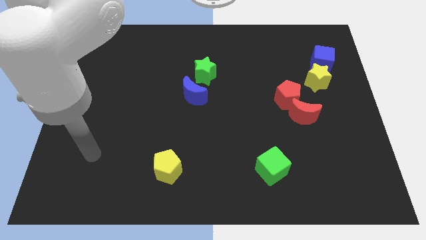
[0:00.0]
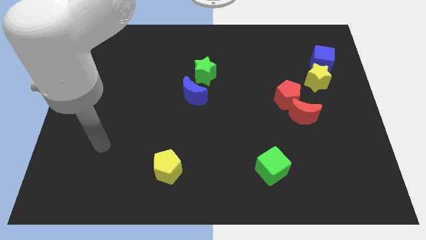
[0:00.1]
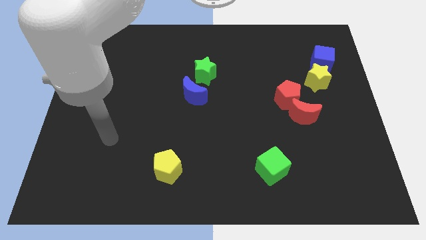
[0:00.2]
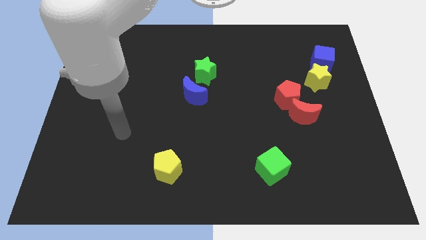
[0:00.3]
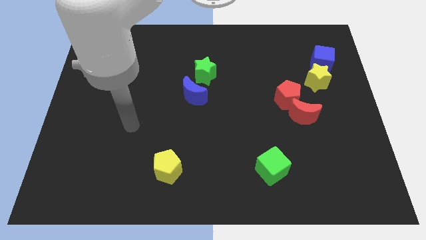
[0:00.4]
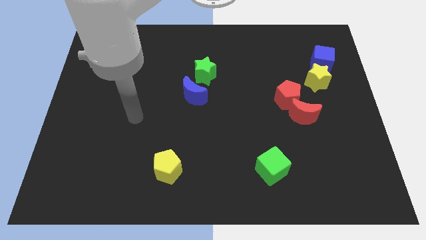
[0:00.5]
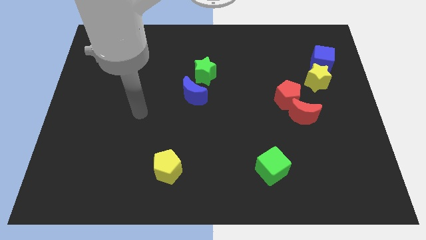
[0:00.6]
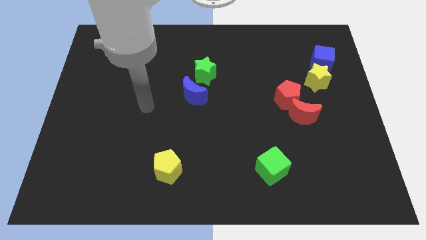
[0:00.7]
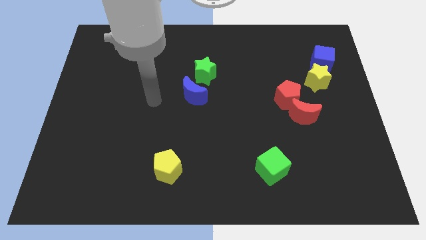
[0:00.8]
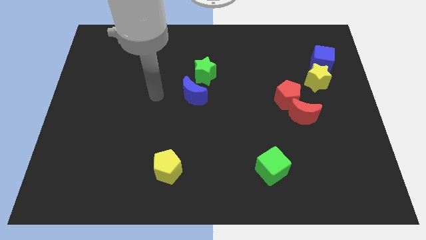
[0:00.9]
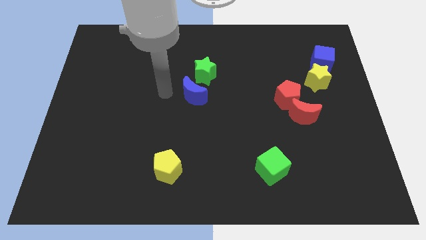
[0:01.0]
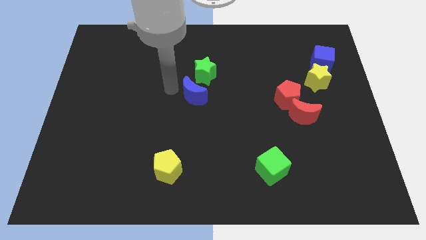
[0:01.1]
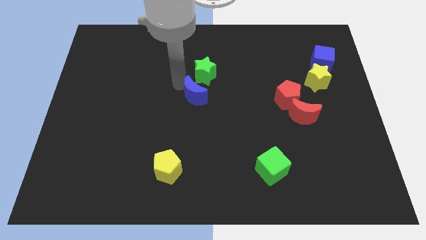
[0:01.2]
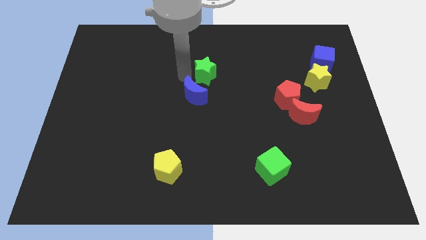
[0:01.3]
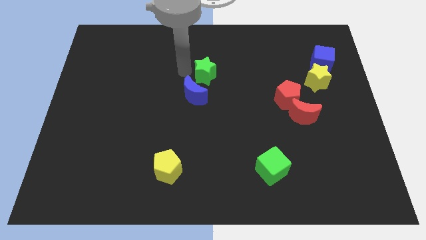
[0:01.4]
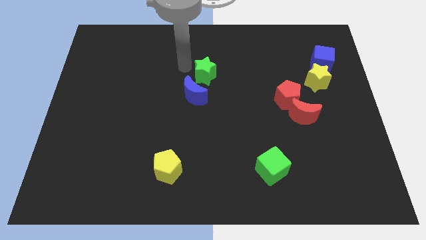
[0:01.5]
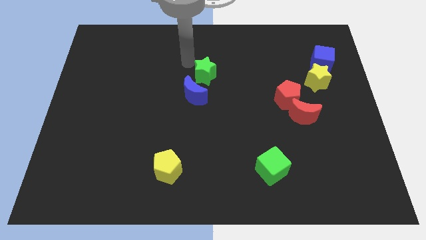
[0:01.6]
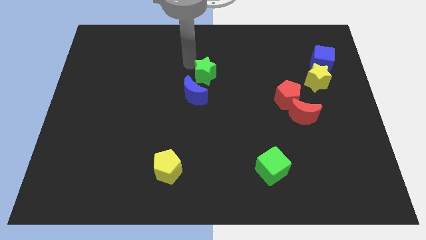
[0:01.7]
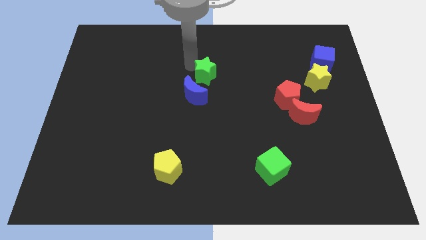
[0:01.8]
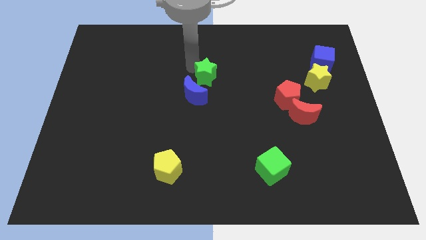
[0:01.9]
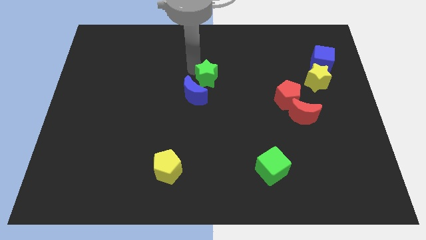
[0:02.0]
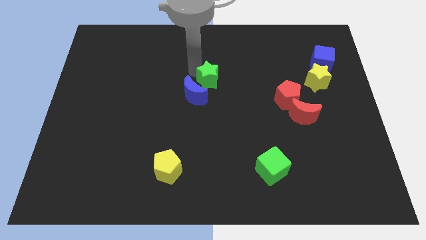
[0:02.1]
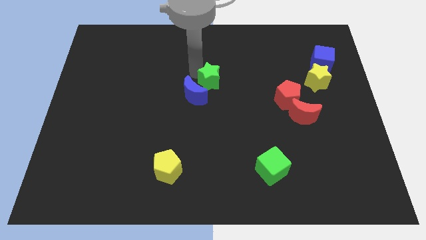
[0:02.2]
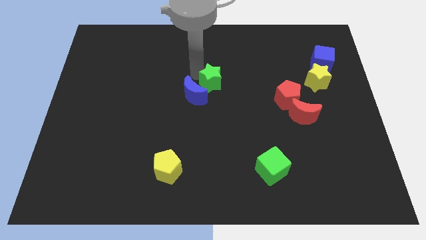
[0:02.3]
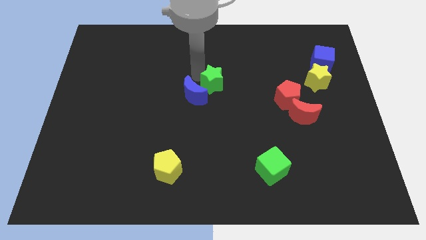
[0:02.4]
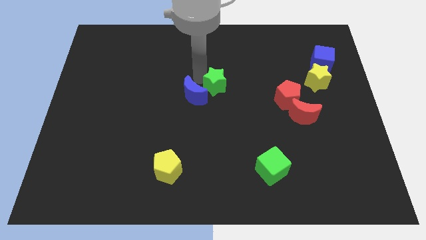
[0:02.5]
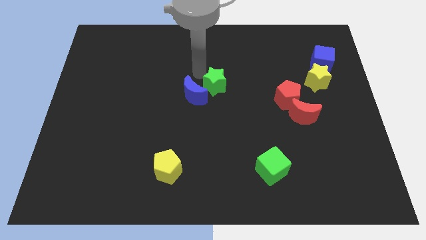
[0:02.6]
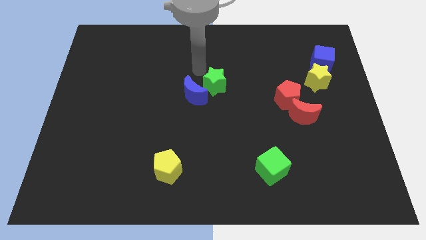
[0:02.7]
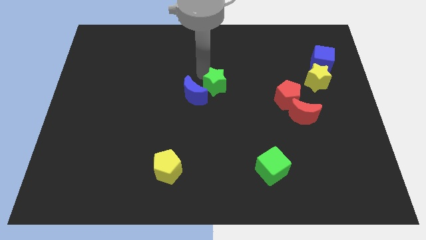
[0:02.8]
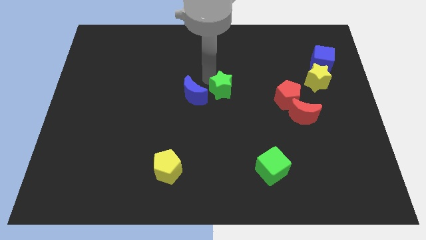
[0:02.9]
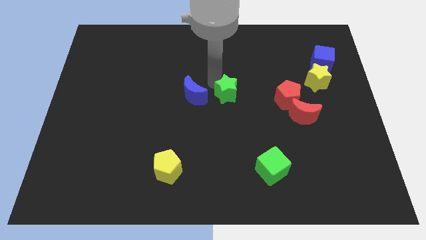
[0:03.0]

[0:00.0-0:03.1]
push the green star slightly downwards and then to the right

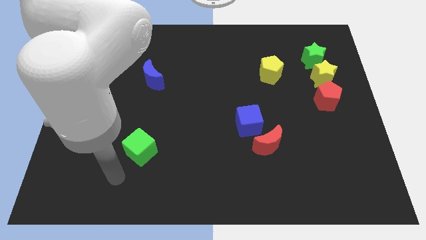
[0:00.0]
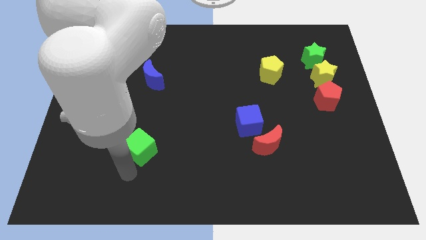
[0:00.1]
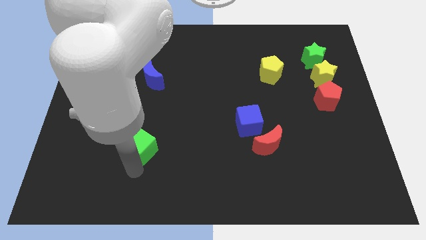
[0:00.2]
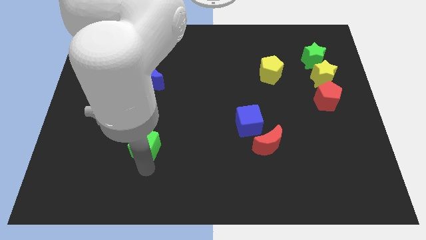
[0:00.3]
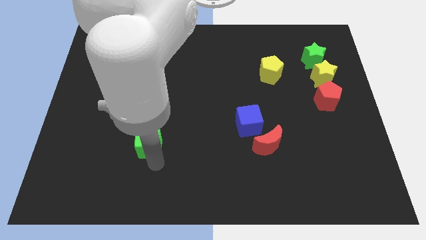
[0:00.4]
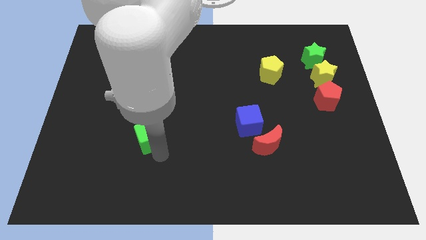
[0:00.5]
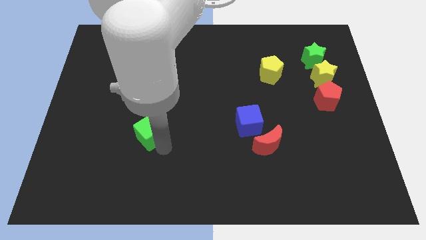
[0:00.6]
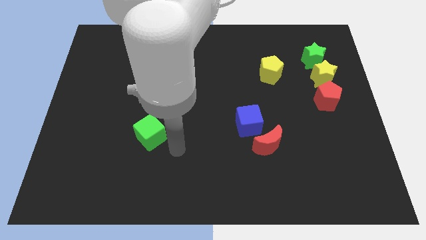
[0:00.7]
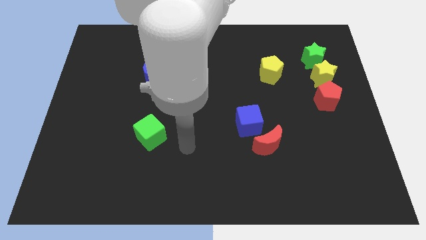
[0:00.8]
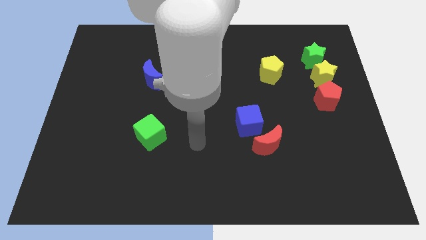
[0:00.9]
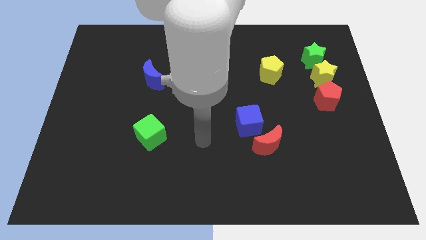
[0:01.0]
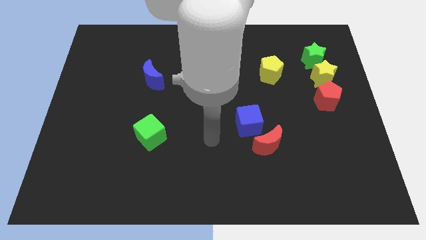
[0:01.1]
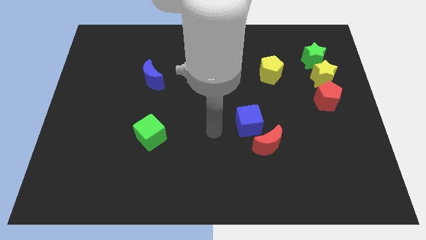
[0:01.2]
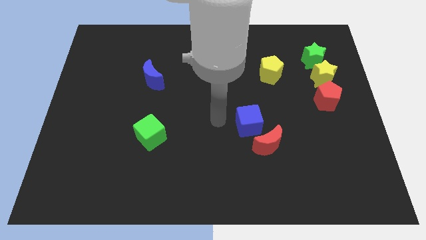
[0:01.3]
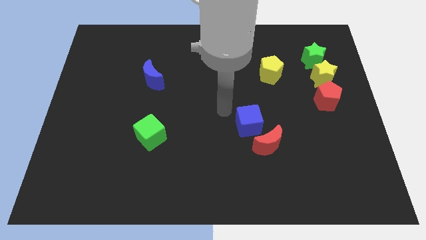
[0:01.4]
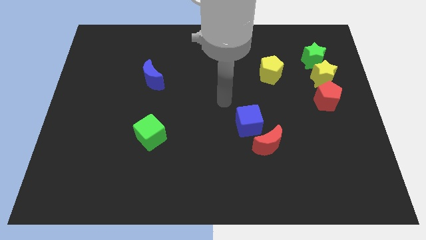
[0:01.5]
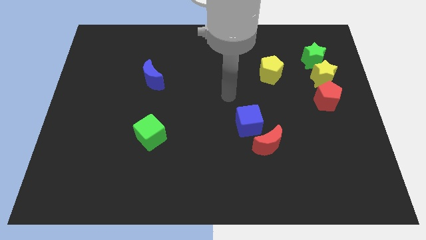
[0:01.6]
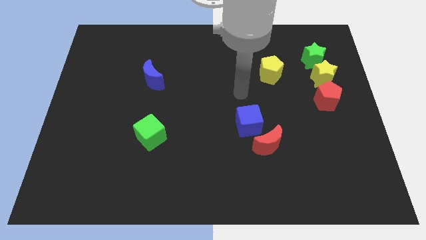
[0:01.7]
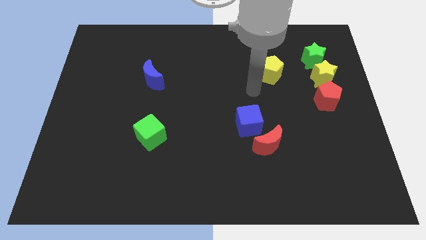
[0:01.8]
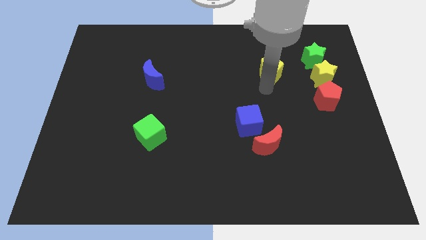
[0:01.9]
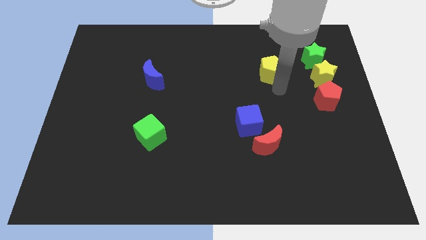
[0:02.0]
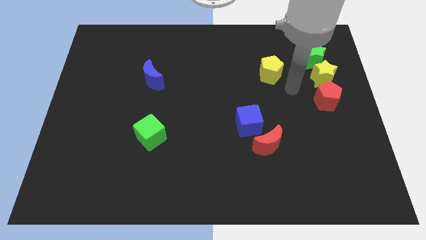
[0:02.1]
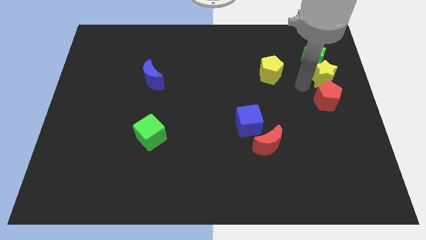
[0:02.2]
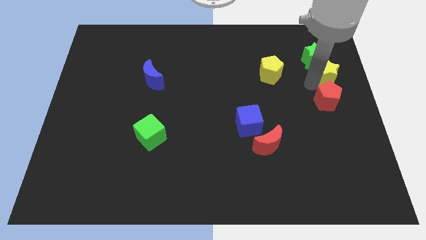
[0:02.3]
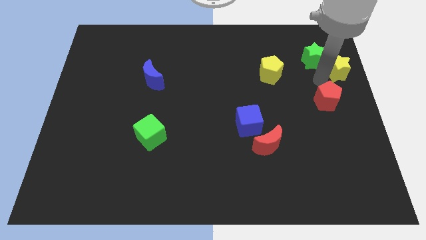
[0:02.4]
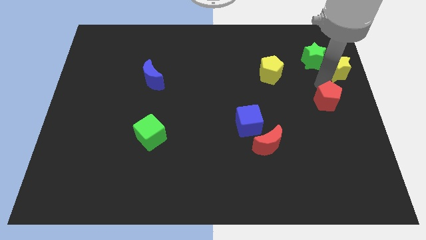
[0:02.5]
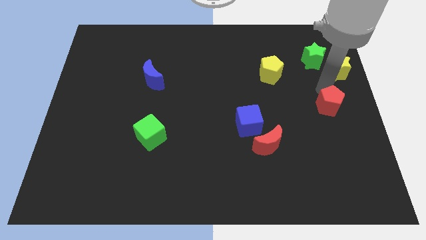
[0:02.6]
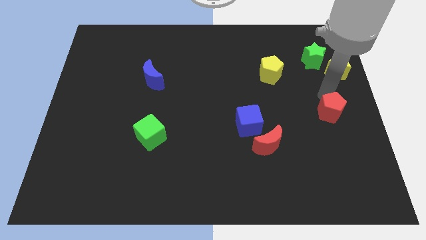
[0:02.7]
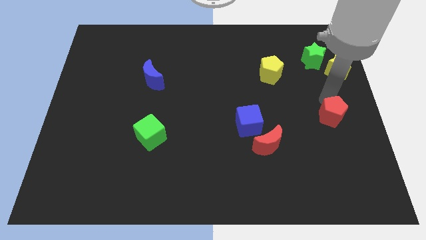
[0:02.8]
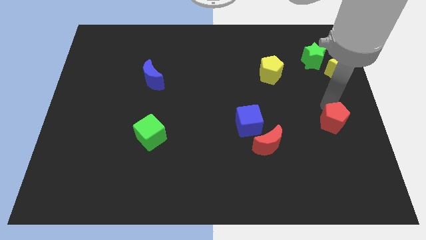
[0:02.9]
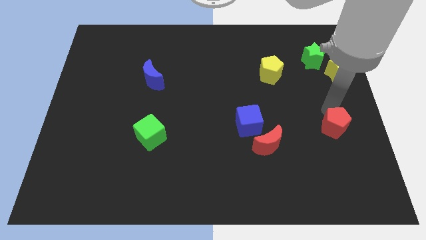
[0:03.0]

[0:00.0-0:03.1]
slightly slide the red pentagon downwards

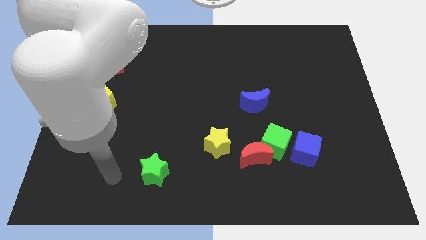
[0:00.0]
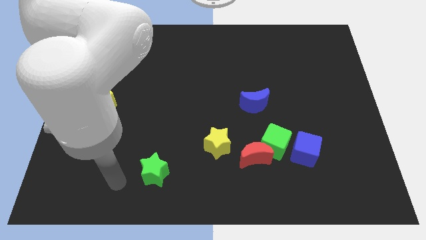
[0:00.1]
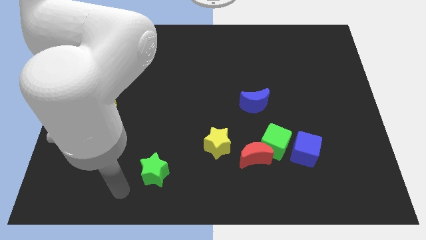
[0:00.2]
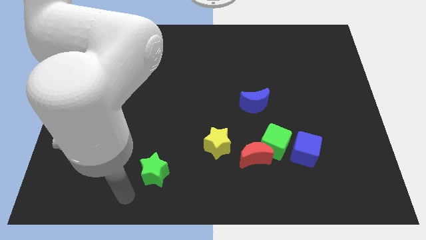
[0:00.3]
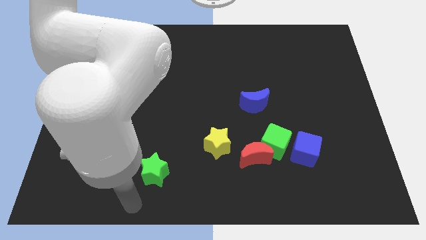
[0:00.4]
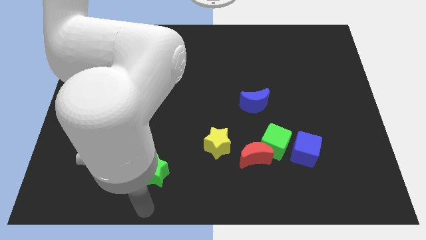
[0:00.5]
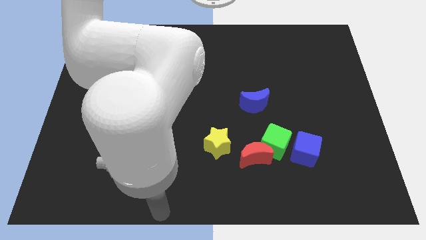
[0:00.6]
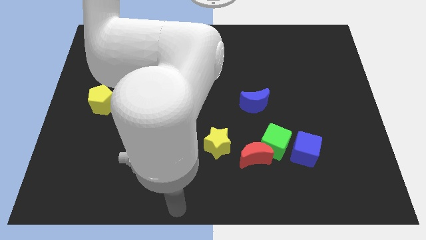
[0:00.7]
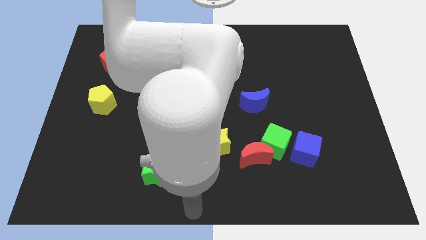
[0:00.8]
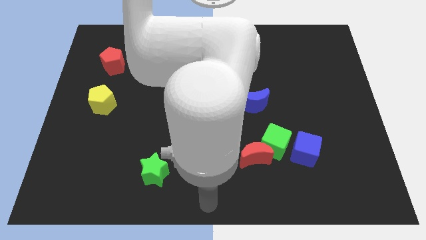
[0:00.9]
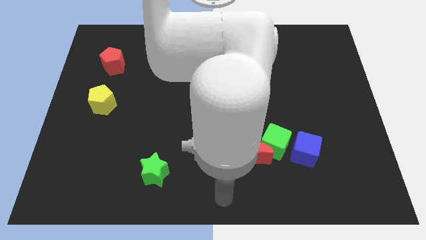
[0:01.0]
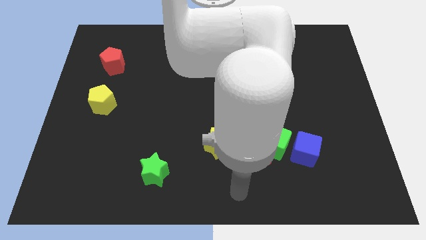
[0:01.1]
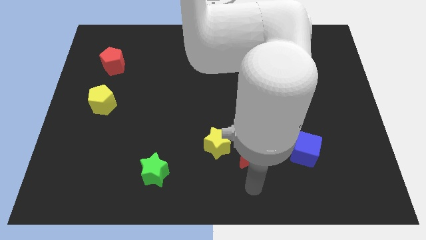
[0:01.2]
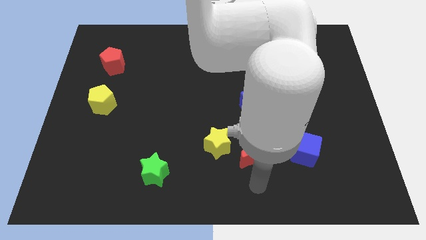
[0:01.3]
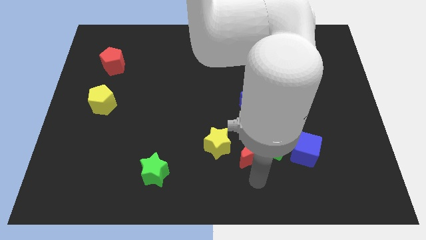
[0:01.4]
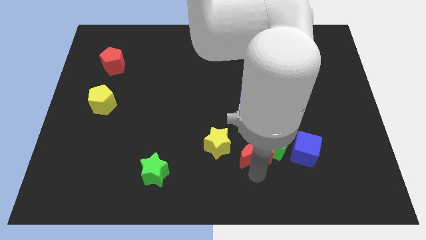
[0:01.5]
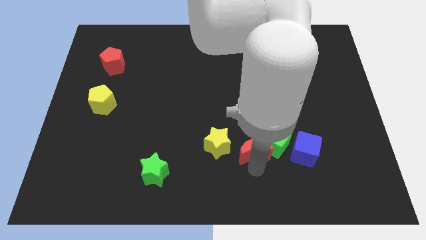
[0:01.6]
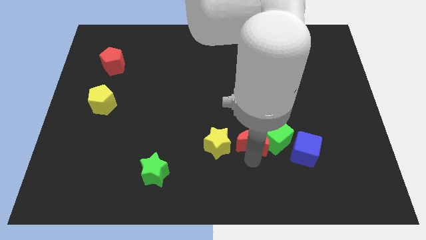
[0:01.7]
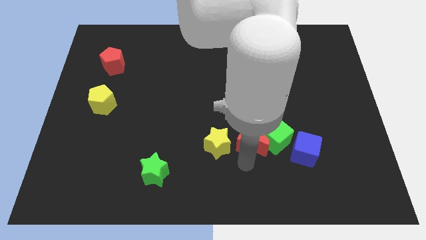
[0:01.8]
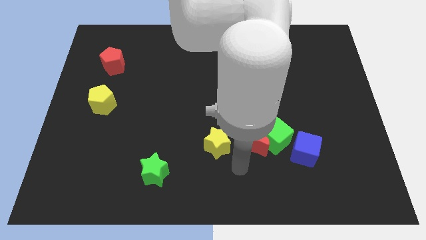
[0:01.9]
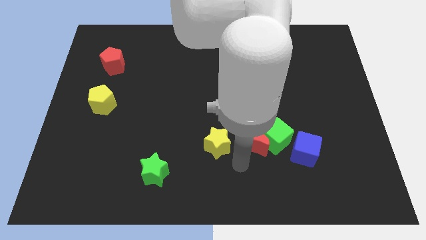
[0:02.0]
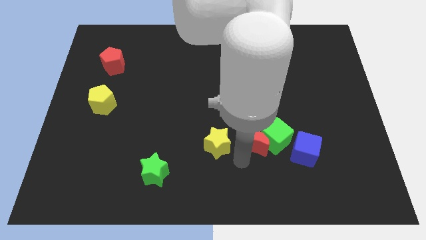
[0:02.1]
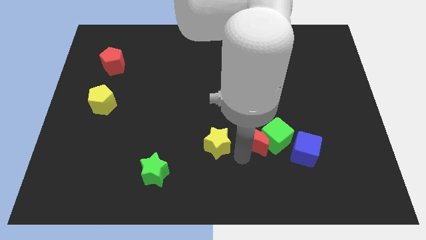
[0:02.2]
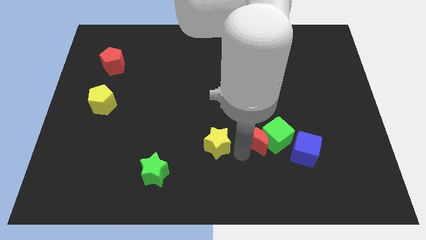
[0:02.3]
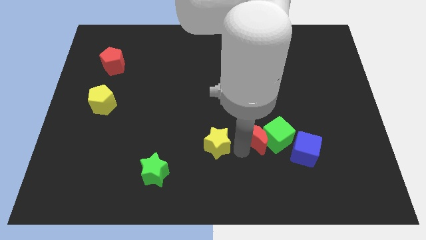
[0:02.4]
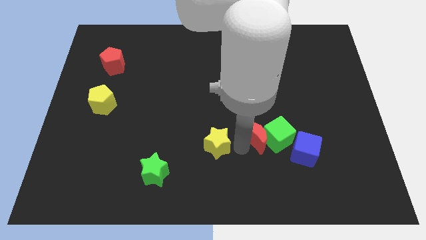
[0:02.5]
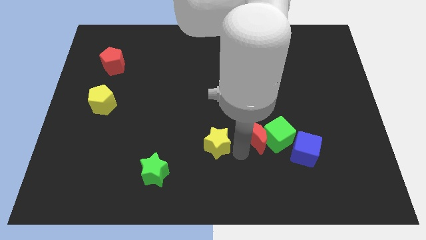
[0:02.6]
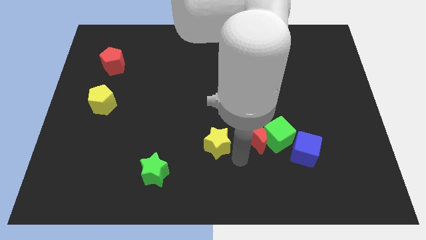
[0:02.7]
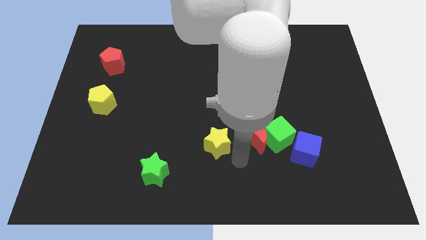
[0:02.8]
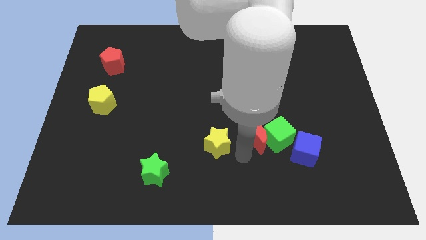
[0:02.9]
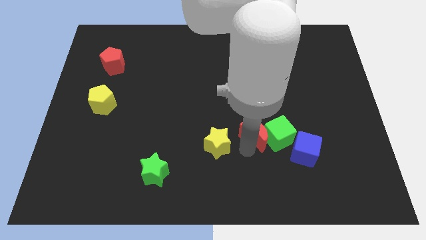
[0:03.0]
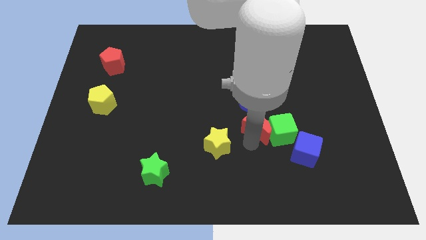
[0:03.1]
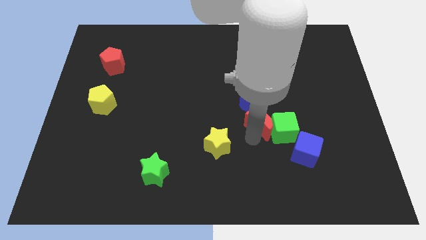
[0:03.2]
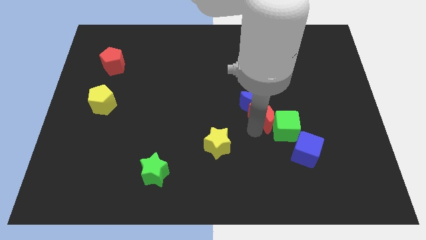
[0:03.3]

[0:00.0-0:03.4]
slightly move the red moon up and to the right
